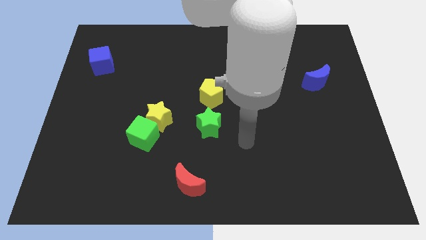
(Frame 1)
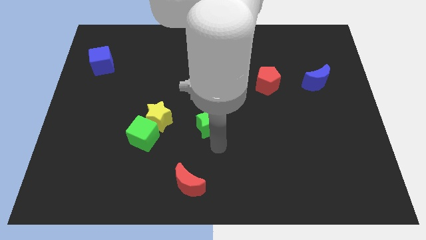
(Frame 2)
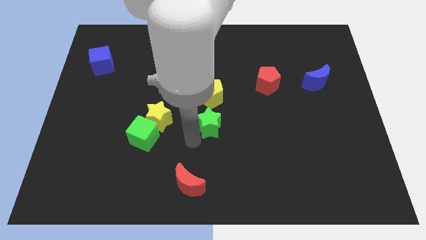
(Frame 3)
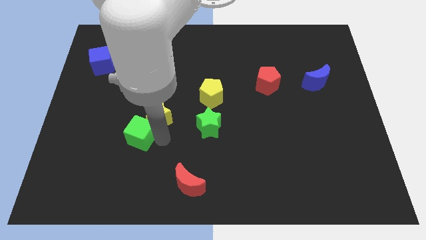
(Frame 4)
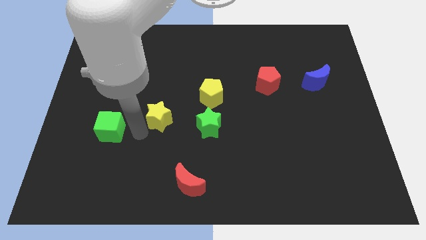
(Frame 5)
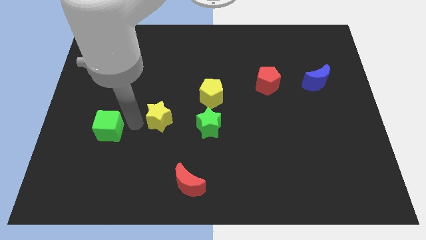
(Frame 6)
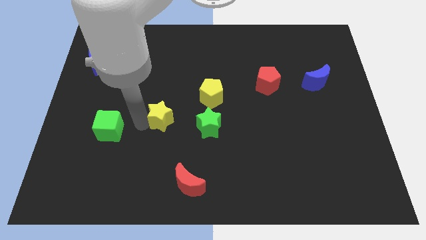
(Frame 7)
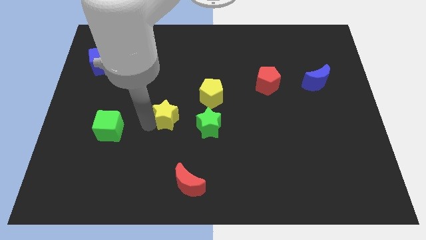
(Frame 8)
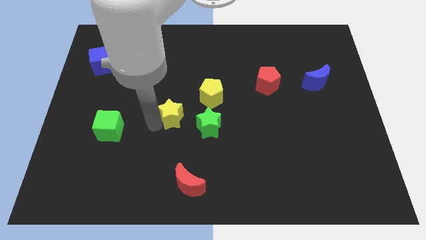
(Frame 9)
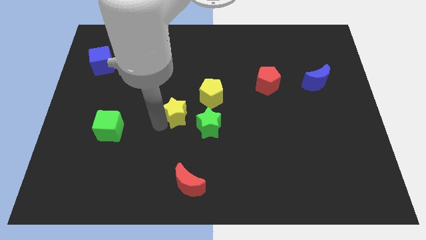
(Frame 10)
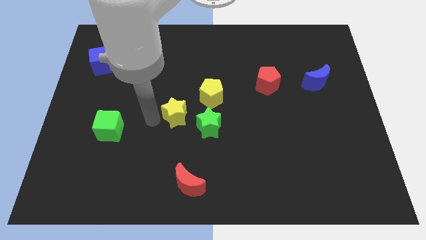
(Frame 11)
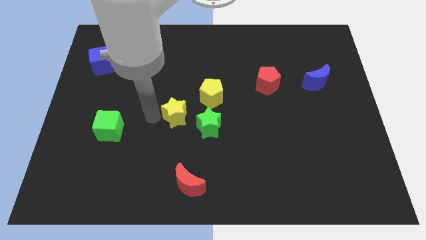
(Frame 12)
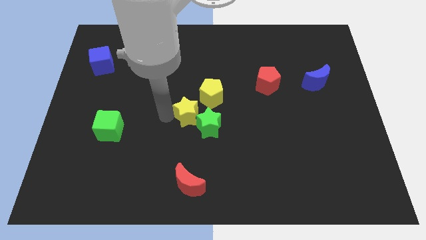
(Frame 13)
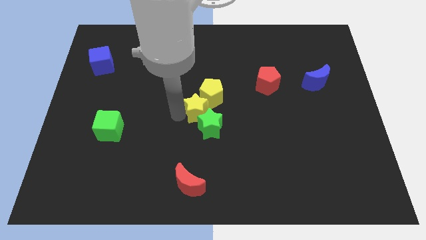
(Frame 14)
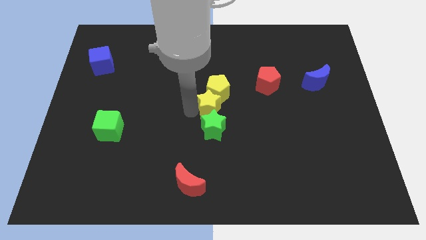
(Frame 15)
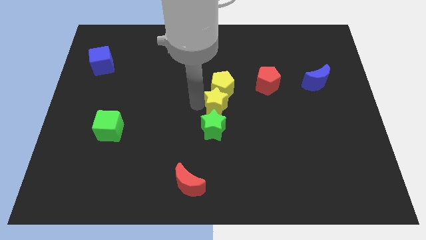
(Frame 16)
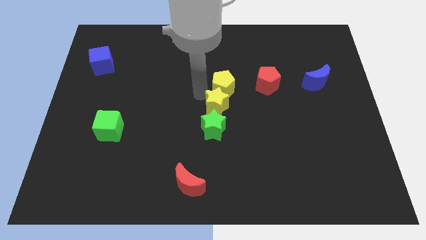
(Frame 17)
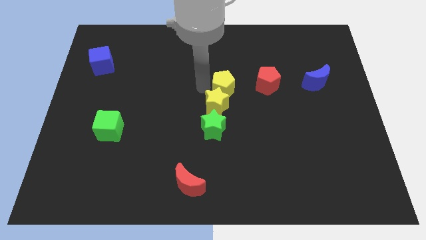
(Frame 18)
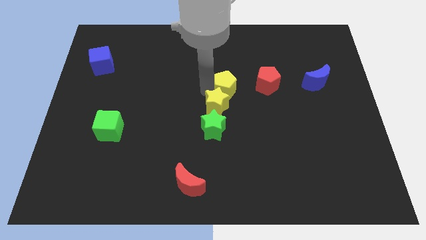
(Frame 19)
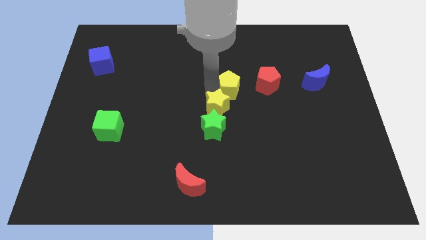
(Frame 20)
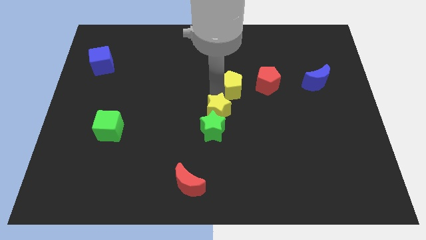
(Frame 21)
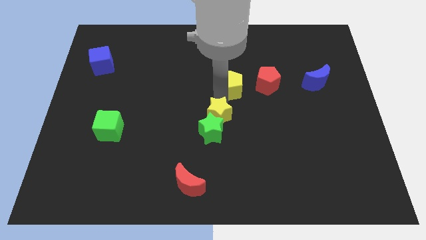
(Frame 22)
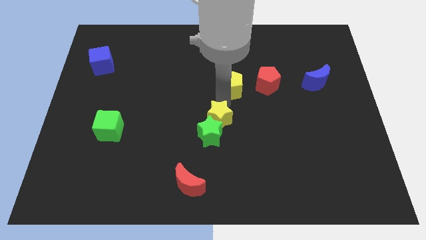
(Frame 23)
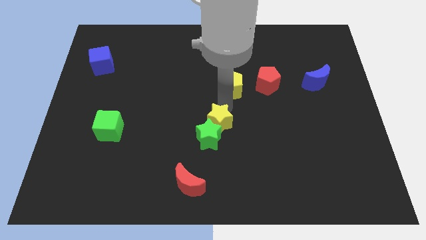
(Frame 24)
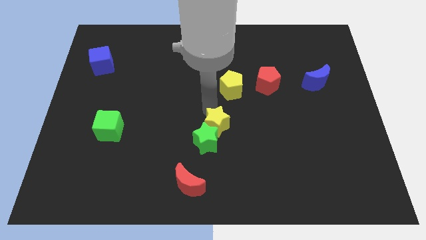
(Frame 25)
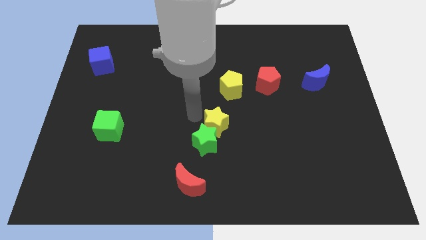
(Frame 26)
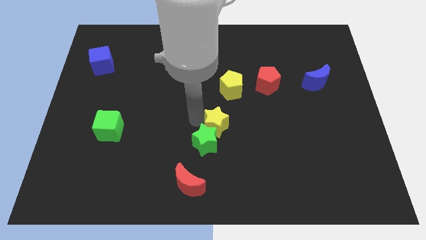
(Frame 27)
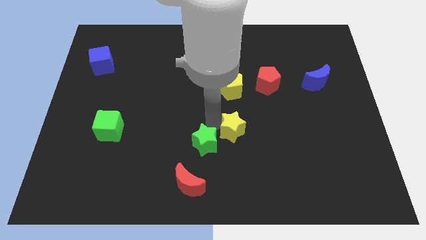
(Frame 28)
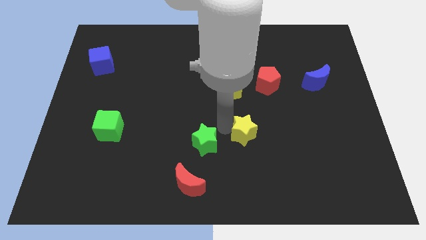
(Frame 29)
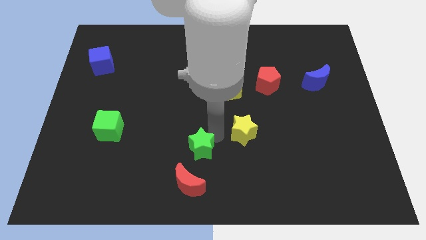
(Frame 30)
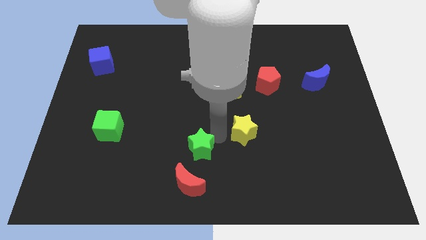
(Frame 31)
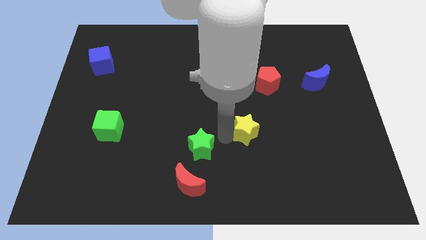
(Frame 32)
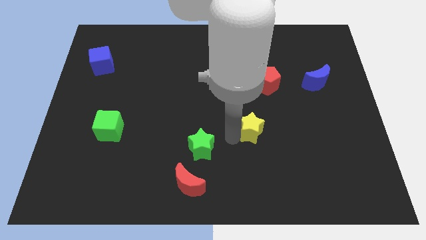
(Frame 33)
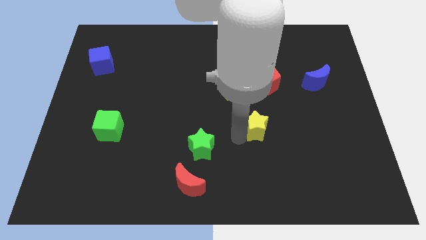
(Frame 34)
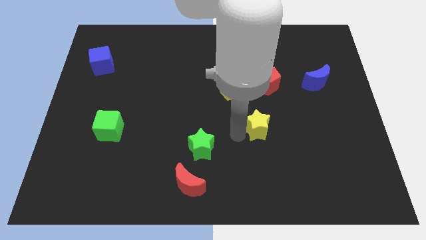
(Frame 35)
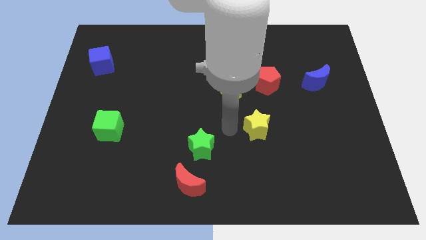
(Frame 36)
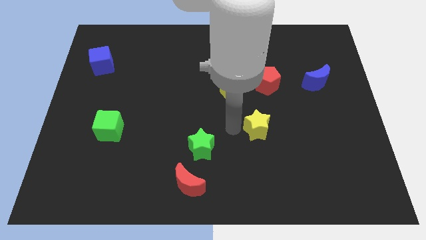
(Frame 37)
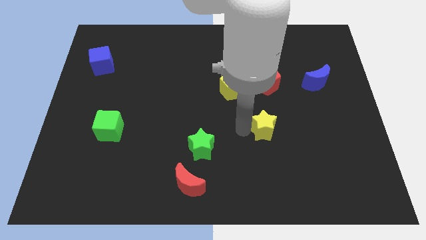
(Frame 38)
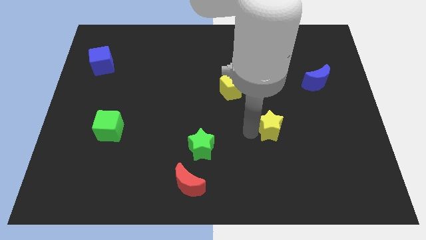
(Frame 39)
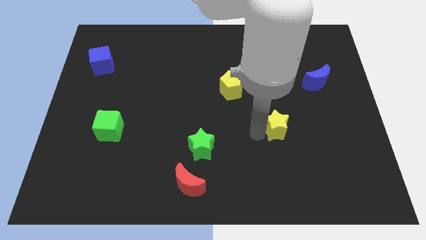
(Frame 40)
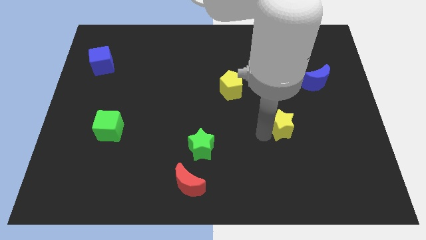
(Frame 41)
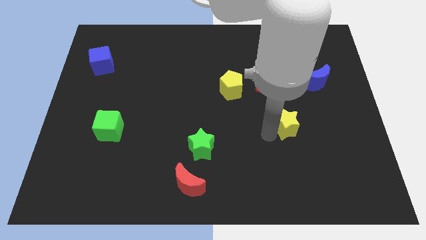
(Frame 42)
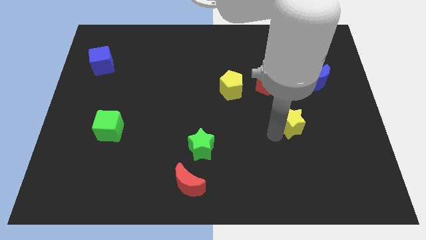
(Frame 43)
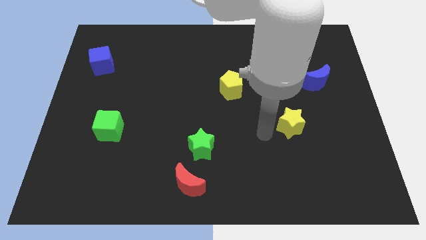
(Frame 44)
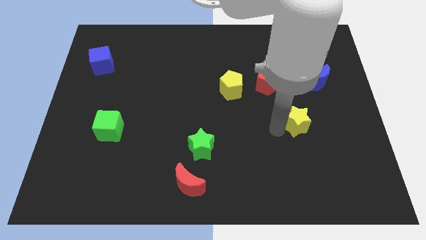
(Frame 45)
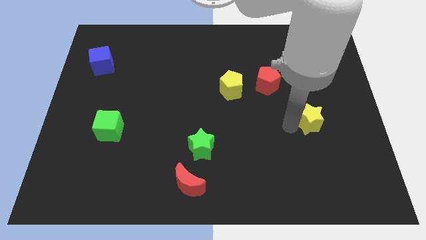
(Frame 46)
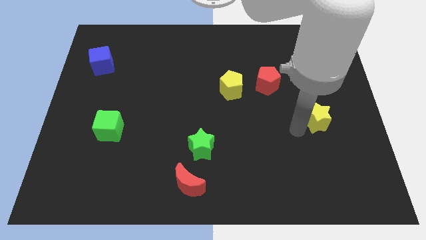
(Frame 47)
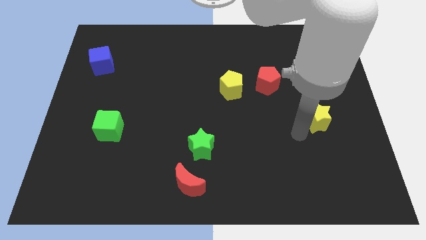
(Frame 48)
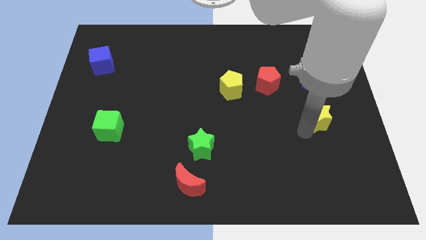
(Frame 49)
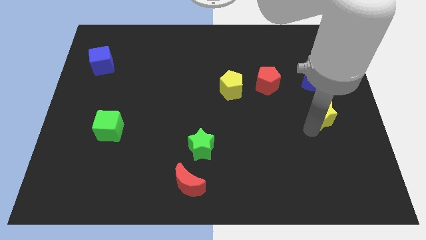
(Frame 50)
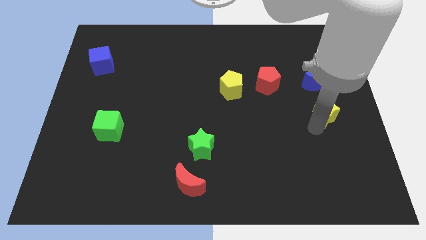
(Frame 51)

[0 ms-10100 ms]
put the yellow star to the right side

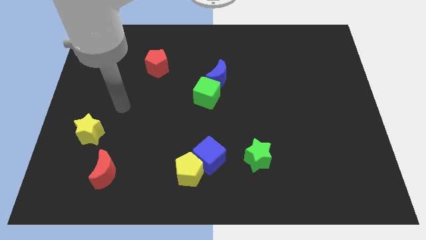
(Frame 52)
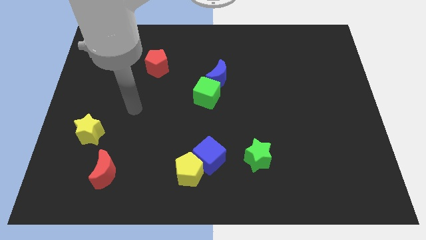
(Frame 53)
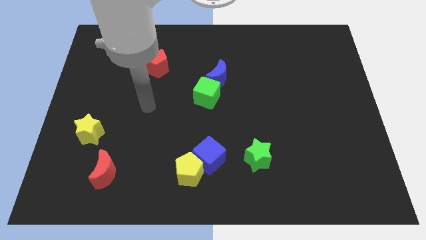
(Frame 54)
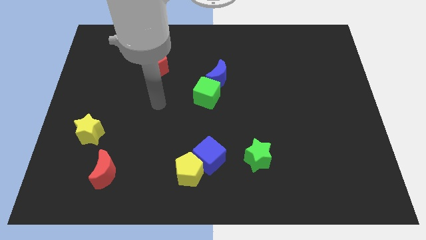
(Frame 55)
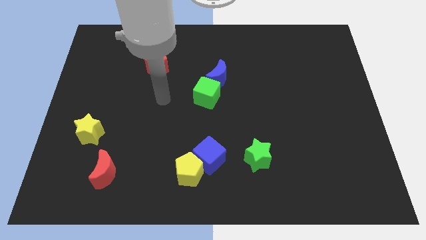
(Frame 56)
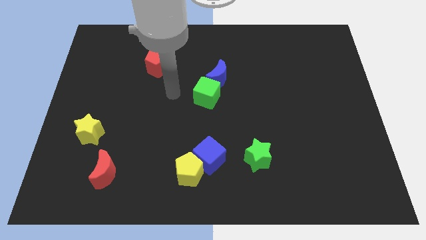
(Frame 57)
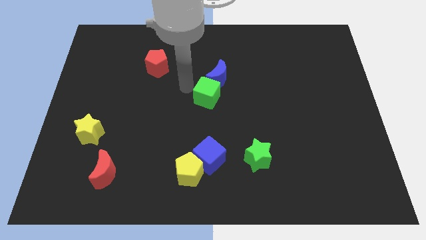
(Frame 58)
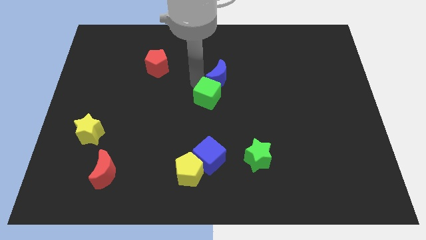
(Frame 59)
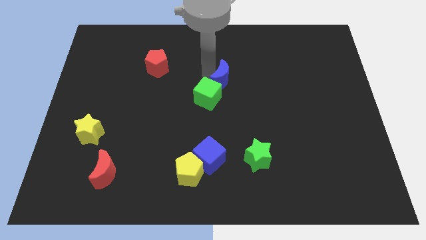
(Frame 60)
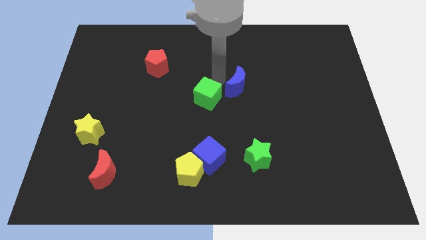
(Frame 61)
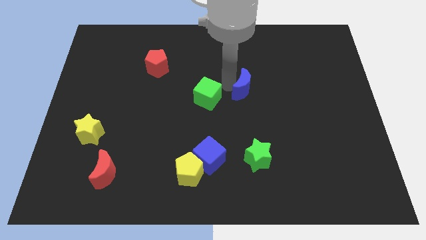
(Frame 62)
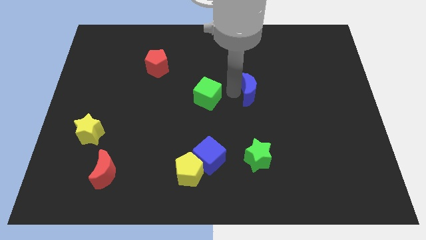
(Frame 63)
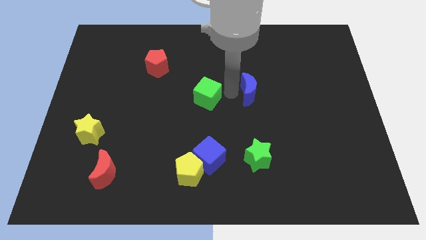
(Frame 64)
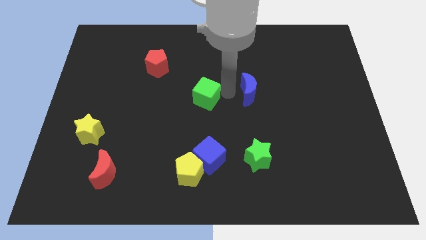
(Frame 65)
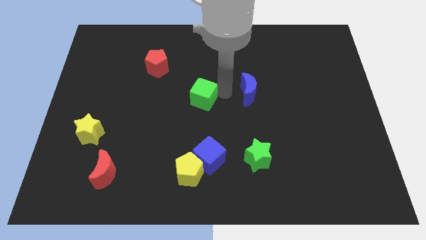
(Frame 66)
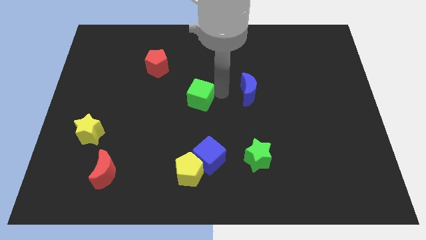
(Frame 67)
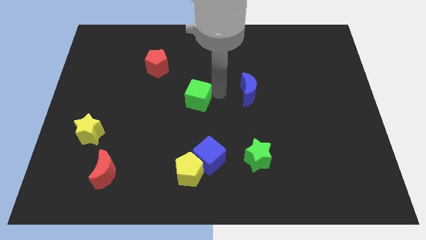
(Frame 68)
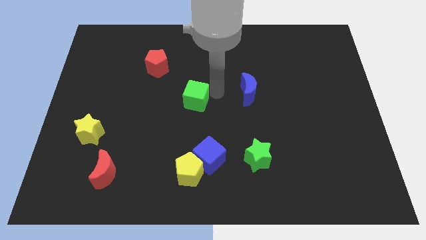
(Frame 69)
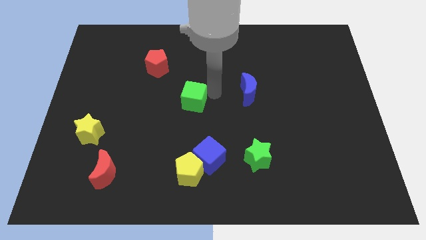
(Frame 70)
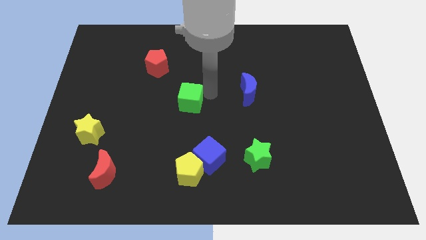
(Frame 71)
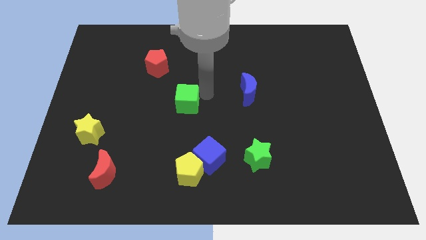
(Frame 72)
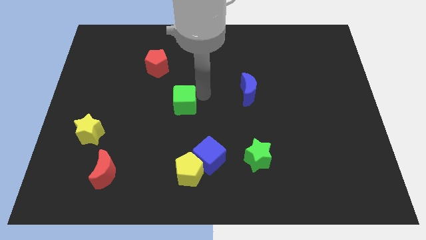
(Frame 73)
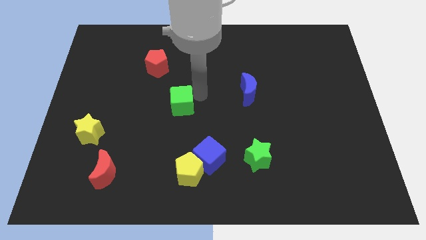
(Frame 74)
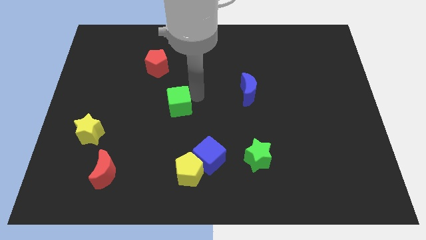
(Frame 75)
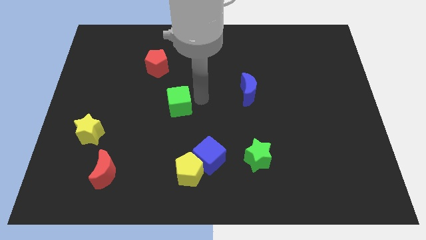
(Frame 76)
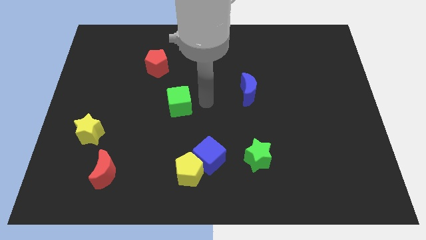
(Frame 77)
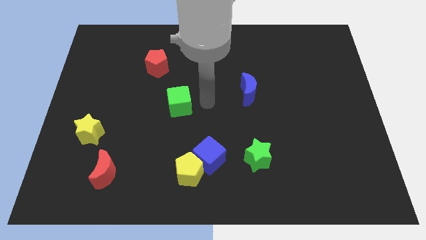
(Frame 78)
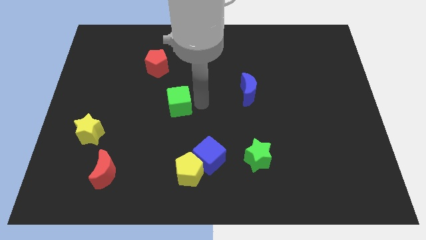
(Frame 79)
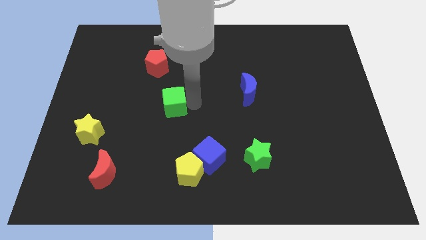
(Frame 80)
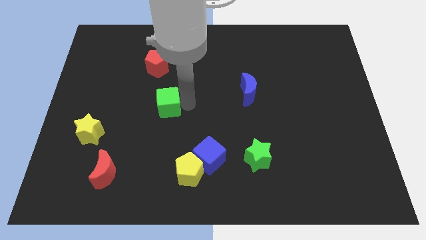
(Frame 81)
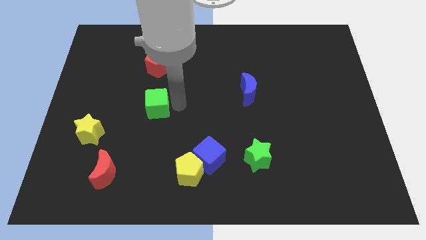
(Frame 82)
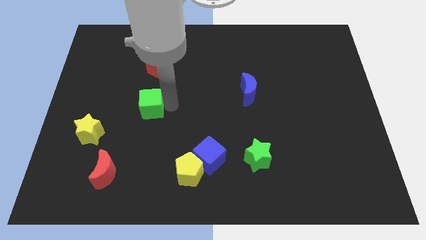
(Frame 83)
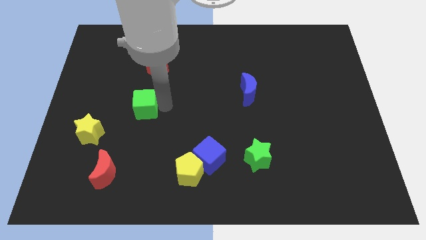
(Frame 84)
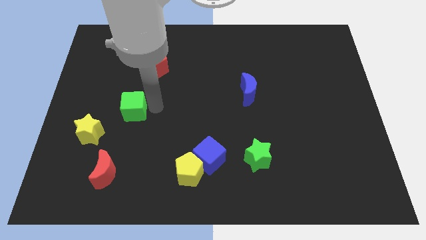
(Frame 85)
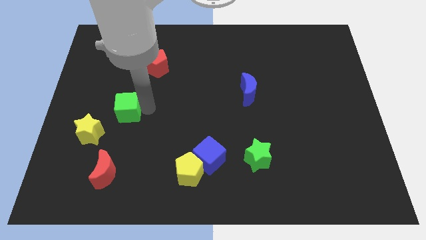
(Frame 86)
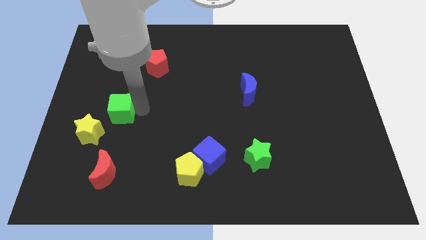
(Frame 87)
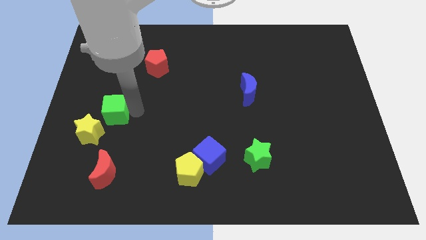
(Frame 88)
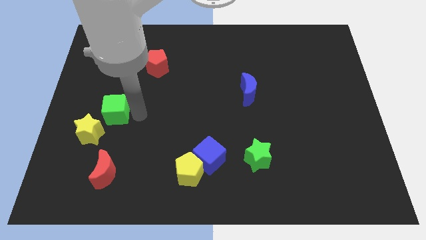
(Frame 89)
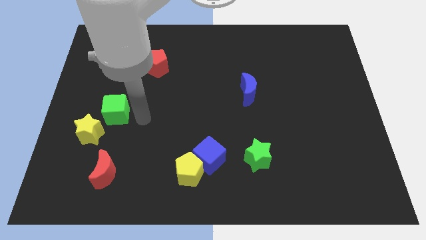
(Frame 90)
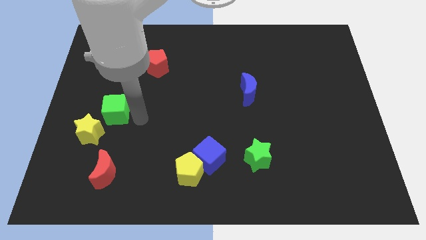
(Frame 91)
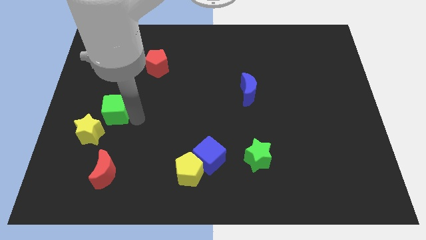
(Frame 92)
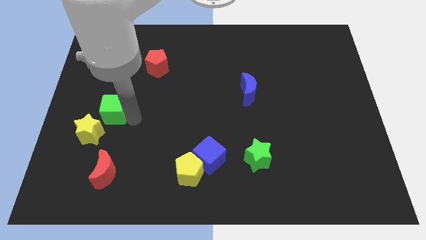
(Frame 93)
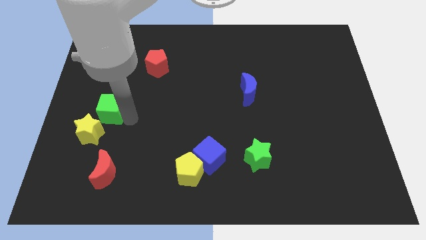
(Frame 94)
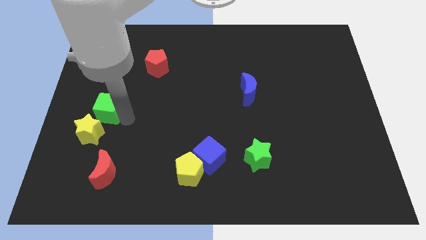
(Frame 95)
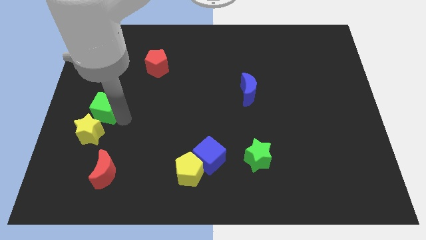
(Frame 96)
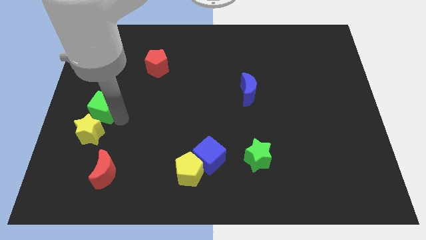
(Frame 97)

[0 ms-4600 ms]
put the green cube to the left side
